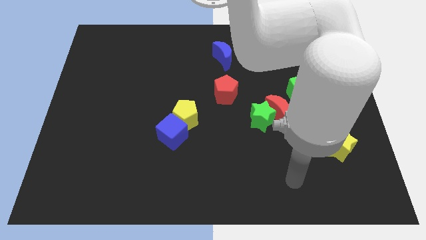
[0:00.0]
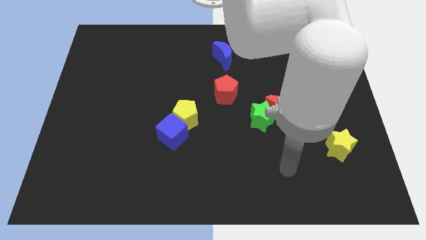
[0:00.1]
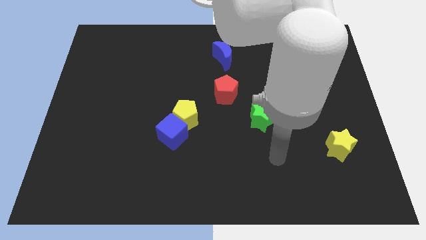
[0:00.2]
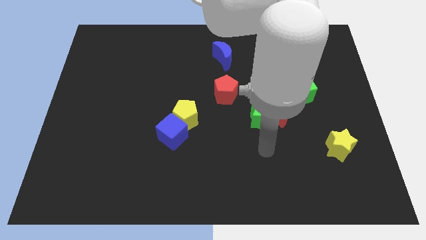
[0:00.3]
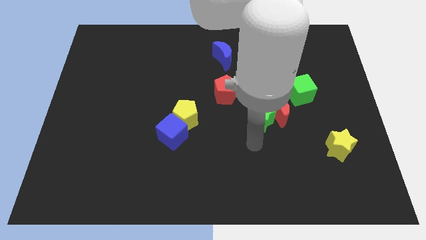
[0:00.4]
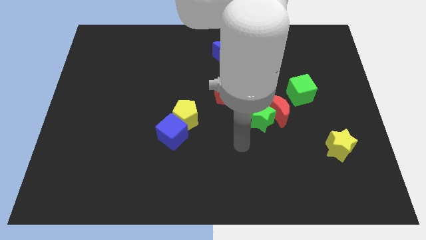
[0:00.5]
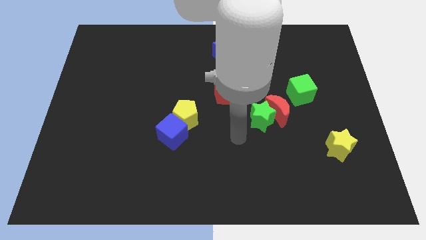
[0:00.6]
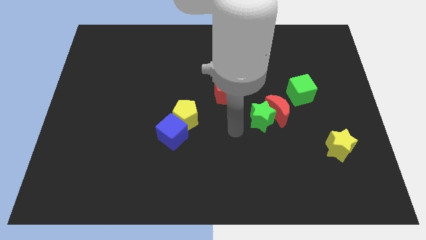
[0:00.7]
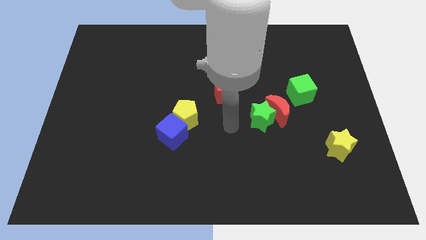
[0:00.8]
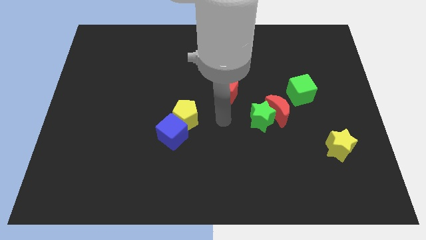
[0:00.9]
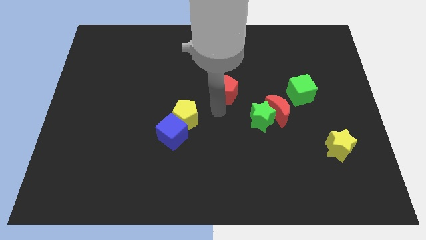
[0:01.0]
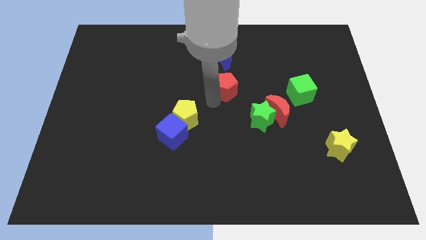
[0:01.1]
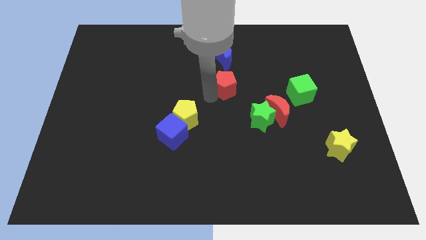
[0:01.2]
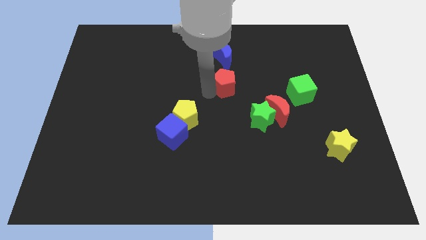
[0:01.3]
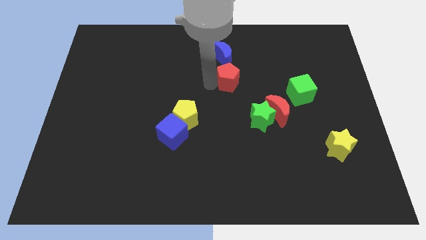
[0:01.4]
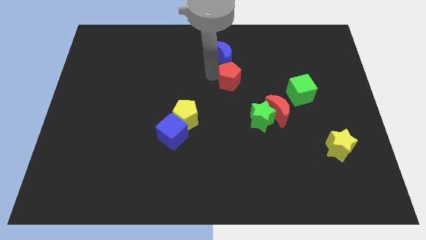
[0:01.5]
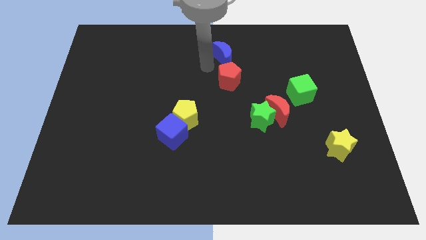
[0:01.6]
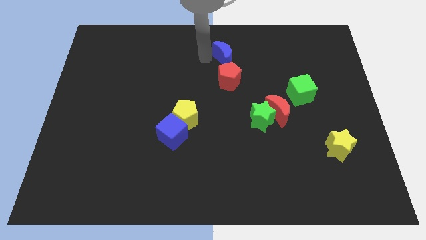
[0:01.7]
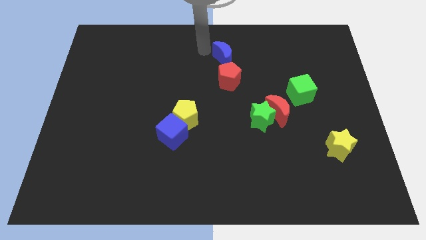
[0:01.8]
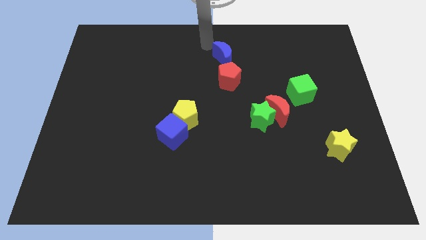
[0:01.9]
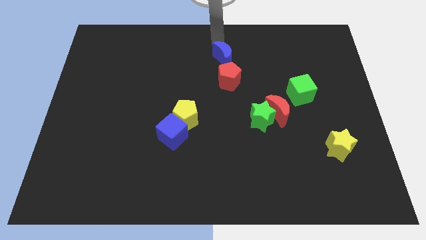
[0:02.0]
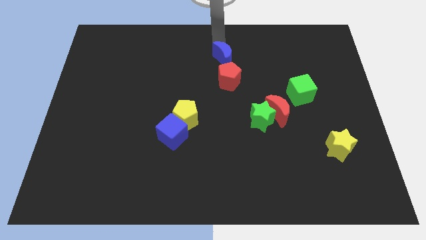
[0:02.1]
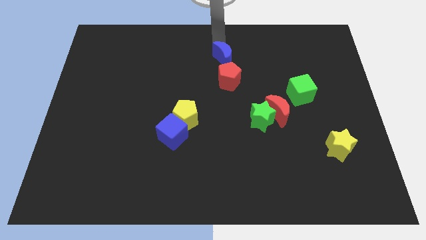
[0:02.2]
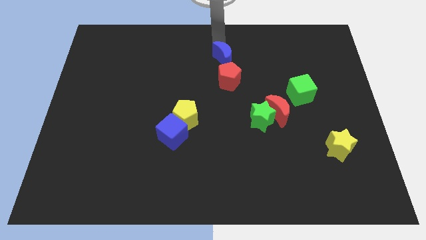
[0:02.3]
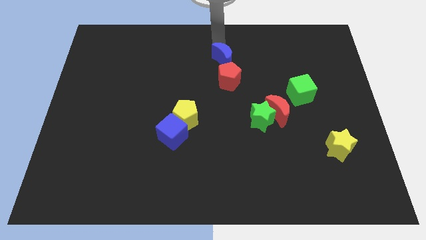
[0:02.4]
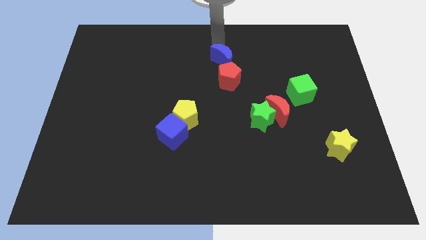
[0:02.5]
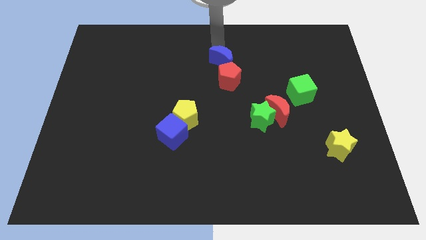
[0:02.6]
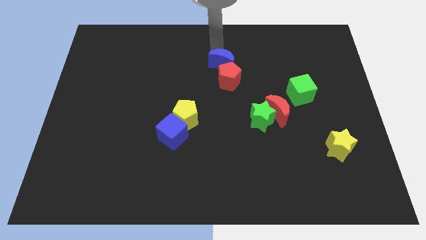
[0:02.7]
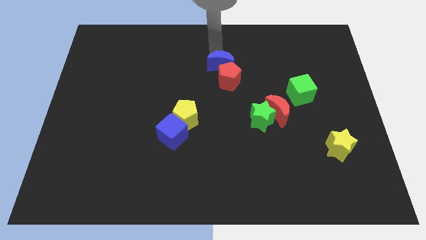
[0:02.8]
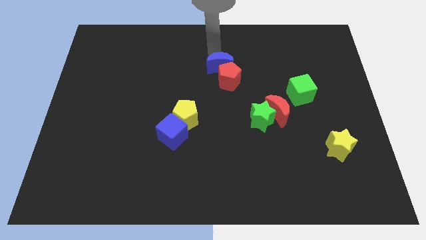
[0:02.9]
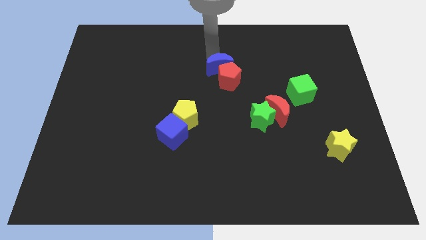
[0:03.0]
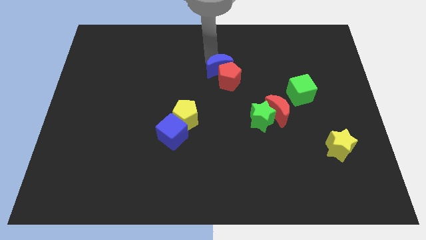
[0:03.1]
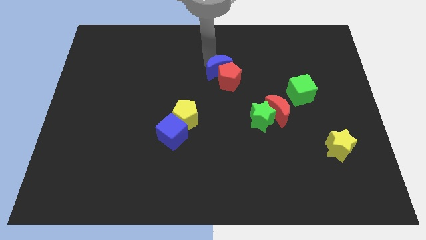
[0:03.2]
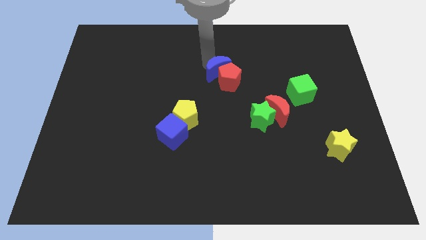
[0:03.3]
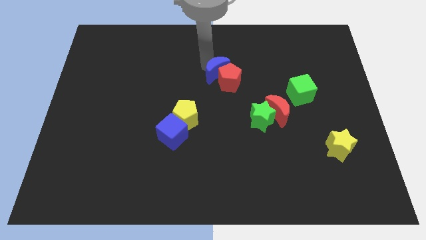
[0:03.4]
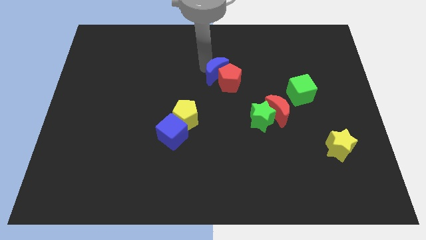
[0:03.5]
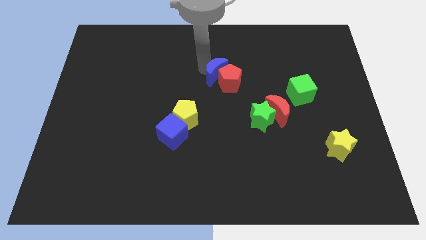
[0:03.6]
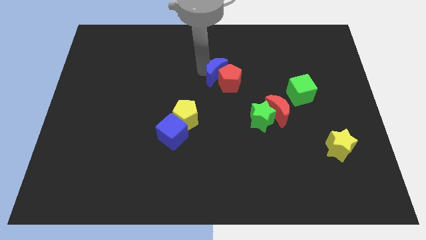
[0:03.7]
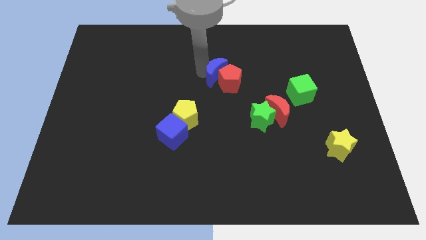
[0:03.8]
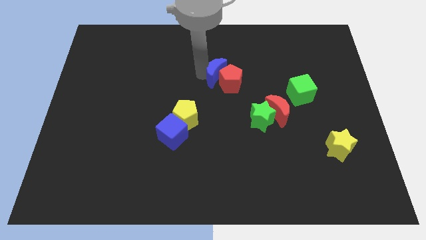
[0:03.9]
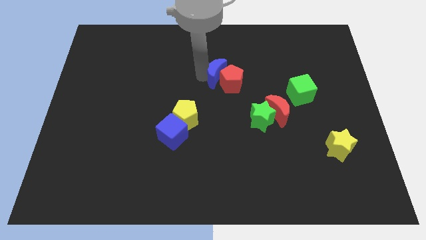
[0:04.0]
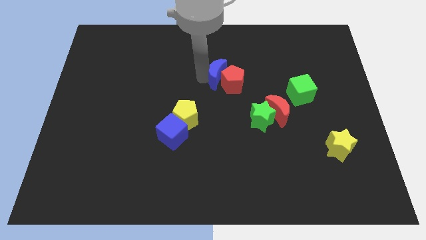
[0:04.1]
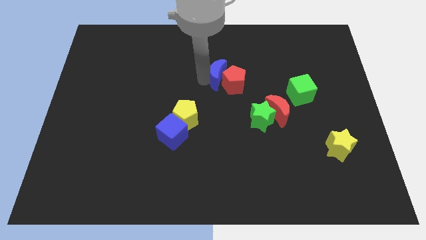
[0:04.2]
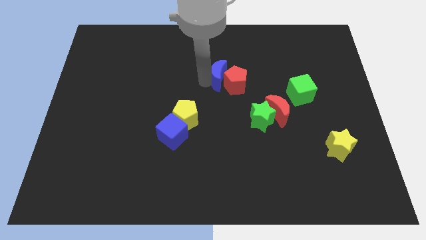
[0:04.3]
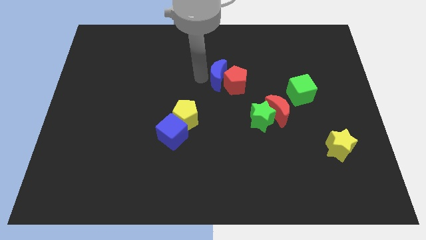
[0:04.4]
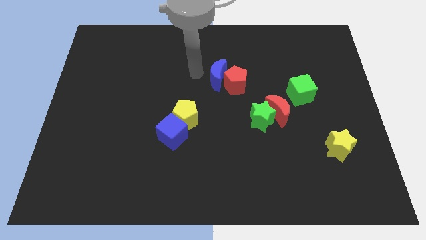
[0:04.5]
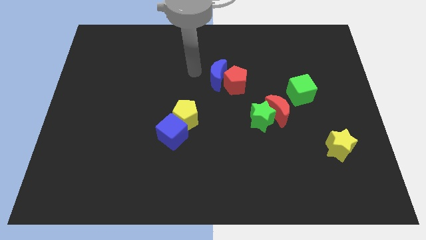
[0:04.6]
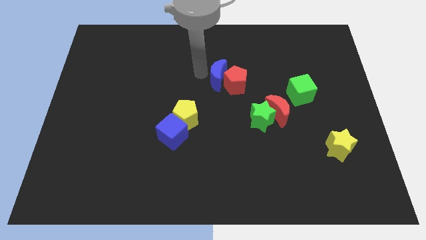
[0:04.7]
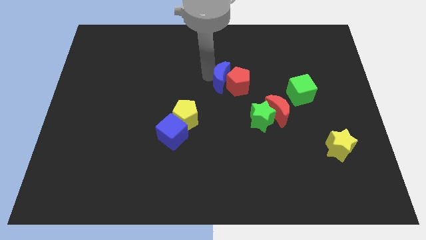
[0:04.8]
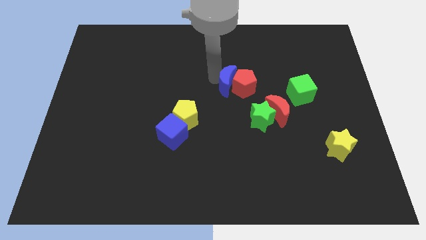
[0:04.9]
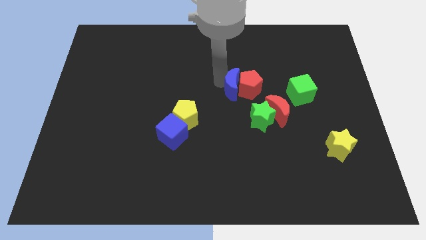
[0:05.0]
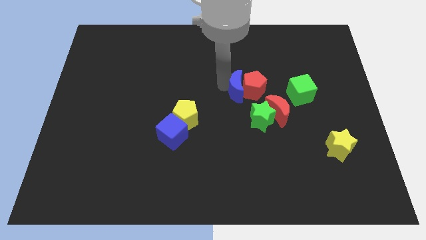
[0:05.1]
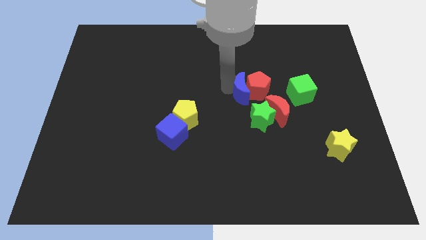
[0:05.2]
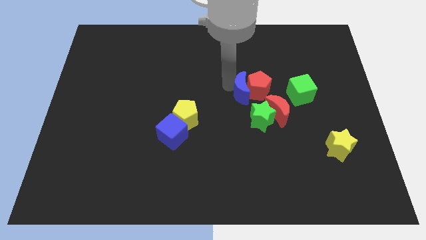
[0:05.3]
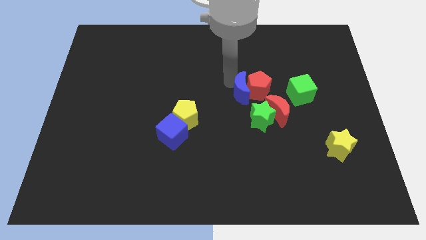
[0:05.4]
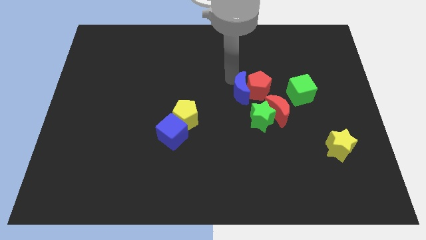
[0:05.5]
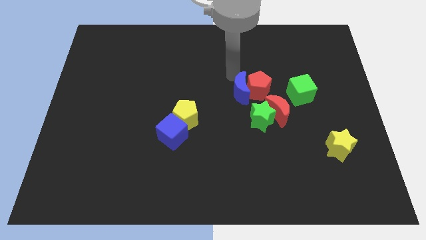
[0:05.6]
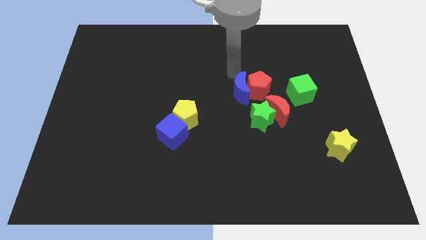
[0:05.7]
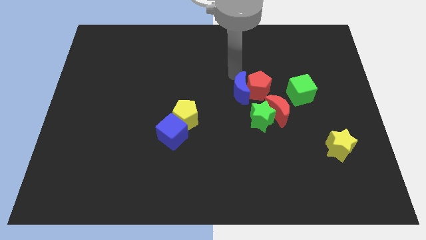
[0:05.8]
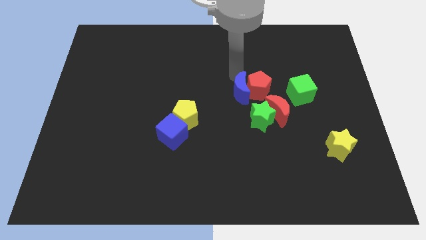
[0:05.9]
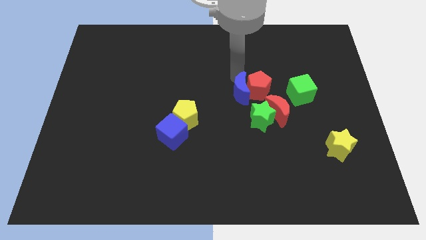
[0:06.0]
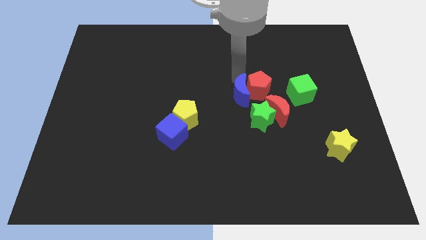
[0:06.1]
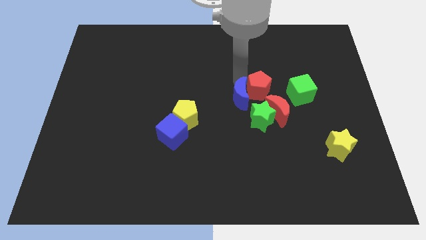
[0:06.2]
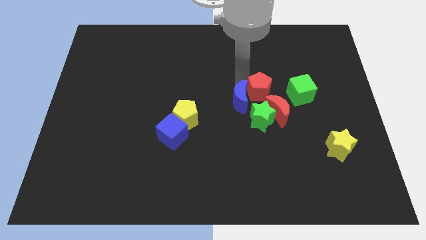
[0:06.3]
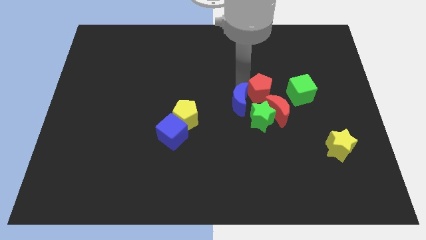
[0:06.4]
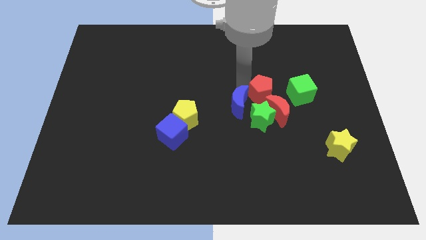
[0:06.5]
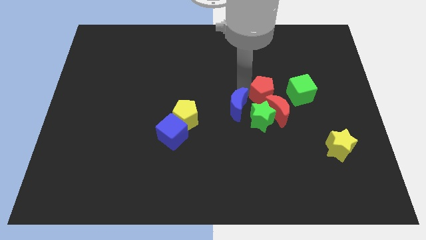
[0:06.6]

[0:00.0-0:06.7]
slide the blue moon towards the green star
